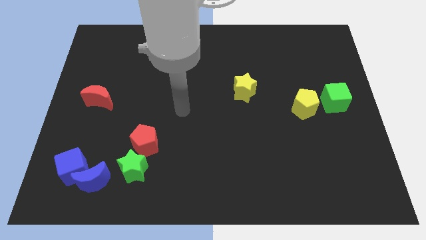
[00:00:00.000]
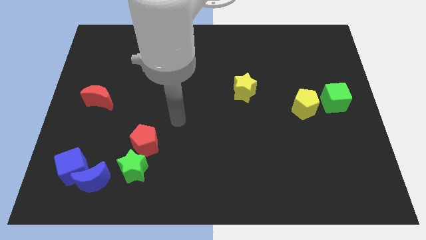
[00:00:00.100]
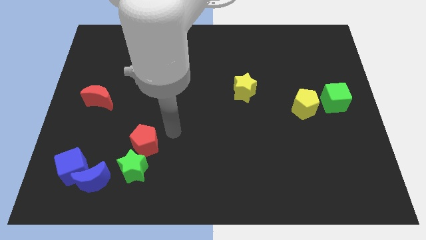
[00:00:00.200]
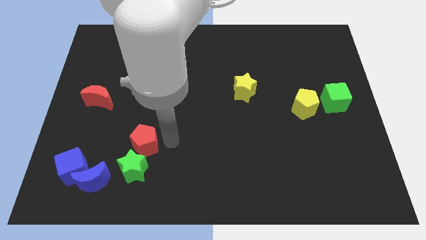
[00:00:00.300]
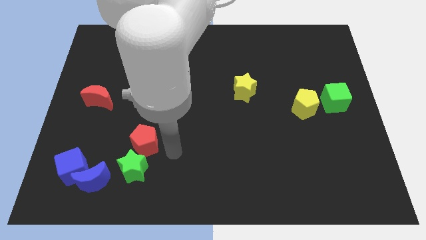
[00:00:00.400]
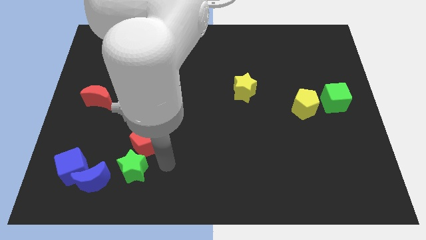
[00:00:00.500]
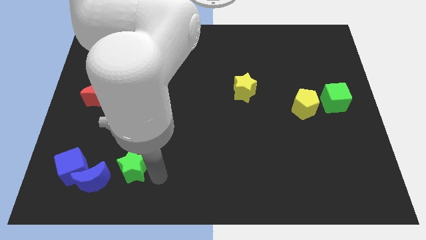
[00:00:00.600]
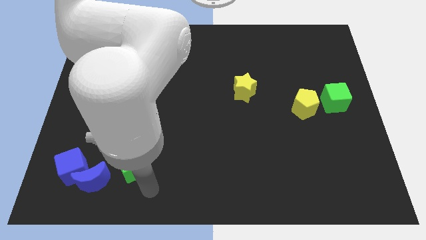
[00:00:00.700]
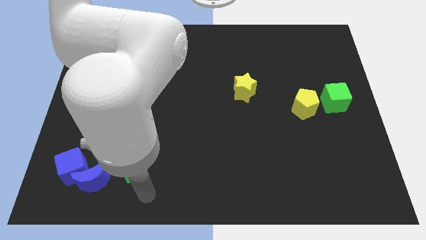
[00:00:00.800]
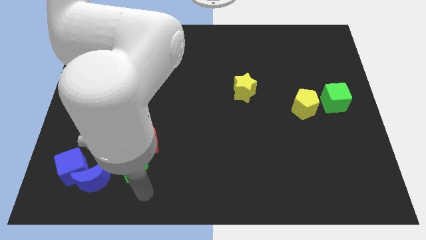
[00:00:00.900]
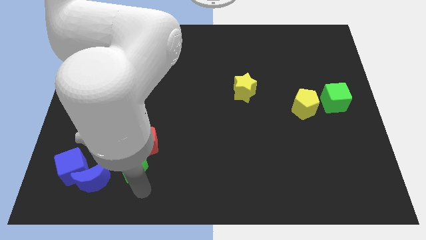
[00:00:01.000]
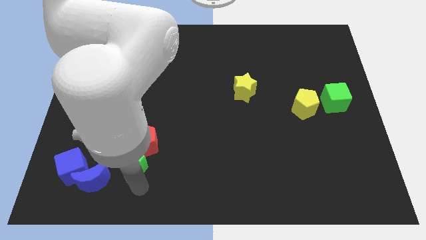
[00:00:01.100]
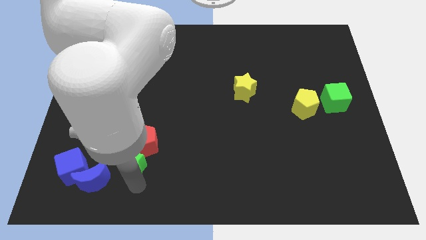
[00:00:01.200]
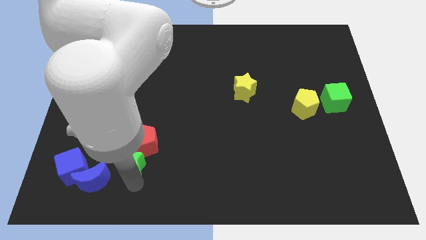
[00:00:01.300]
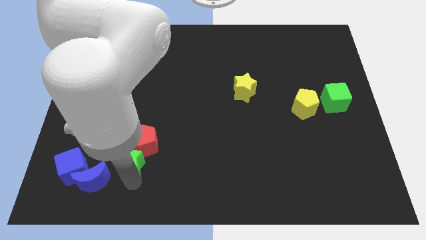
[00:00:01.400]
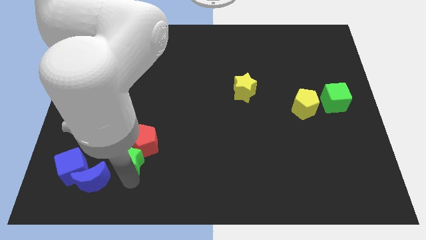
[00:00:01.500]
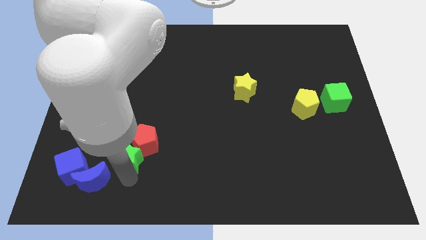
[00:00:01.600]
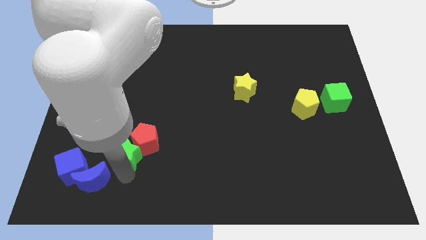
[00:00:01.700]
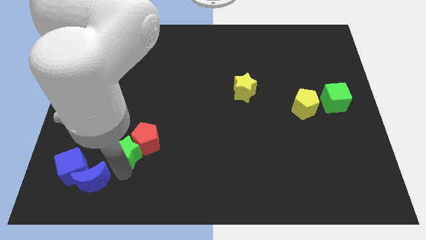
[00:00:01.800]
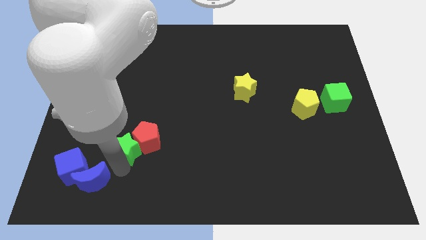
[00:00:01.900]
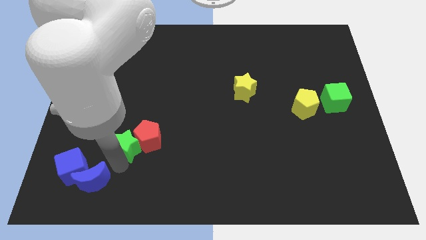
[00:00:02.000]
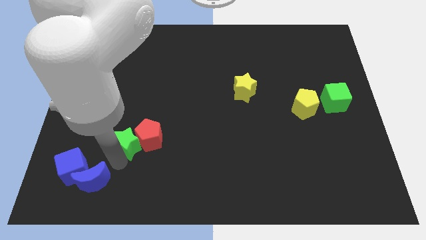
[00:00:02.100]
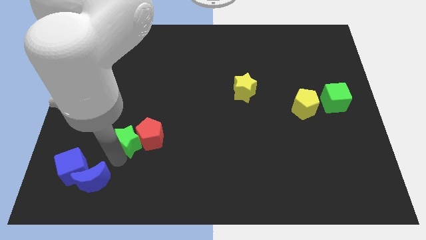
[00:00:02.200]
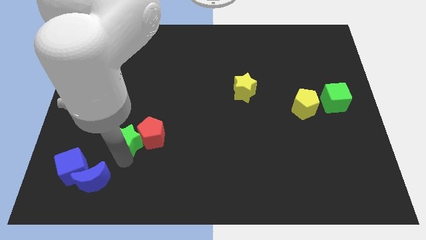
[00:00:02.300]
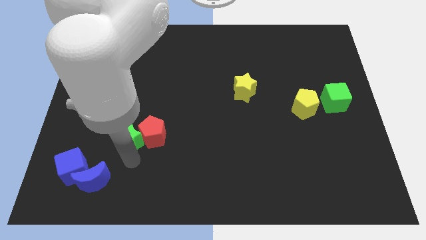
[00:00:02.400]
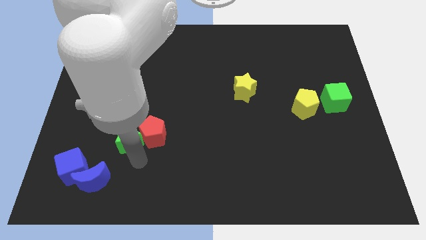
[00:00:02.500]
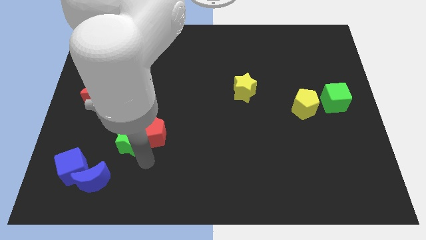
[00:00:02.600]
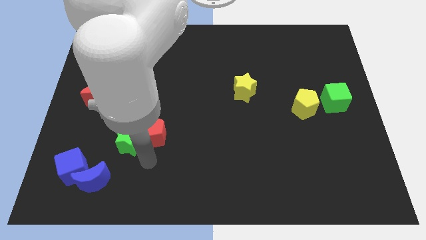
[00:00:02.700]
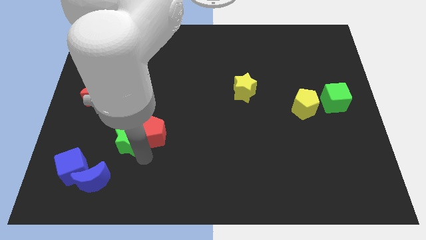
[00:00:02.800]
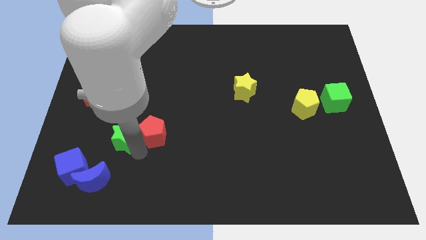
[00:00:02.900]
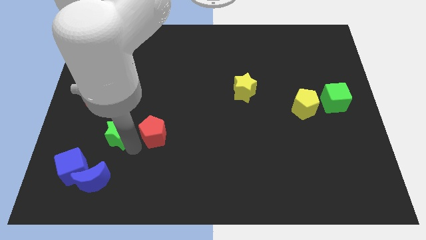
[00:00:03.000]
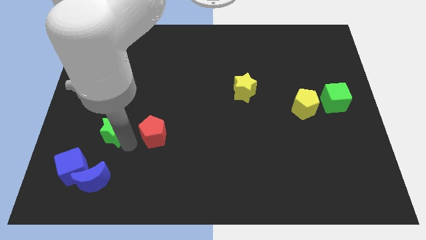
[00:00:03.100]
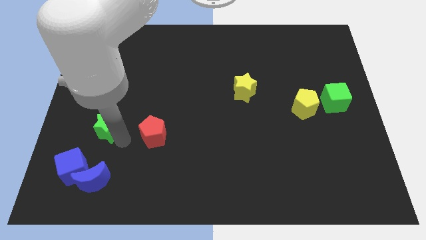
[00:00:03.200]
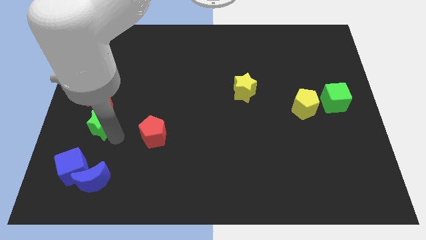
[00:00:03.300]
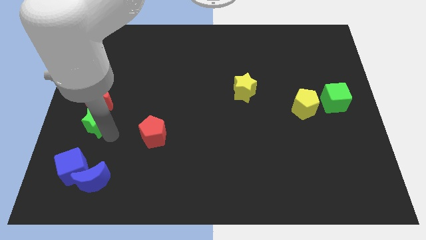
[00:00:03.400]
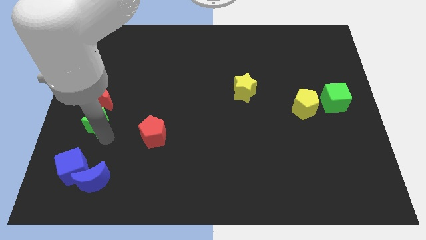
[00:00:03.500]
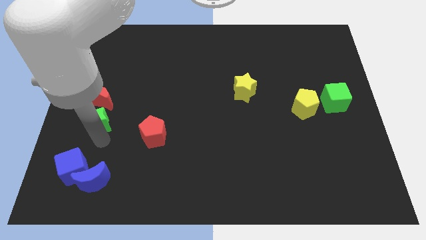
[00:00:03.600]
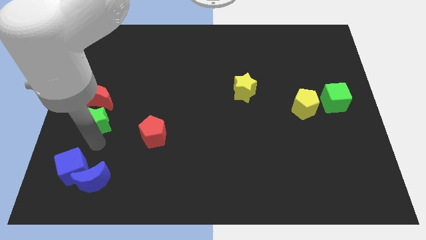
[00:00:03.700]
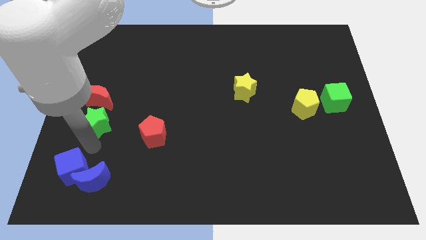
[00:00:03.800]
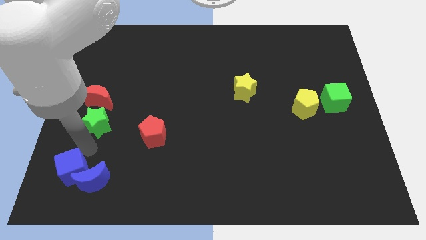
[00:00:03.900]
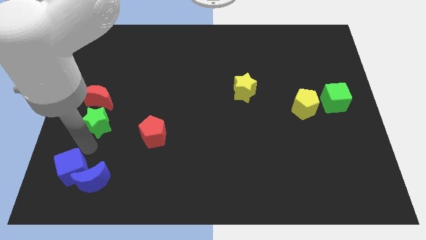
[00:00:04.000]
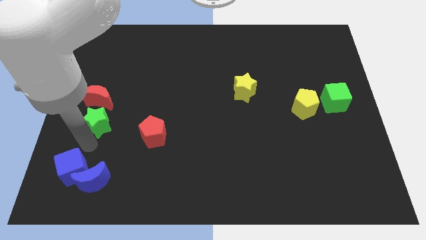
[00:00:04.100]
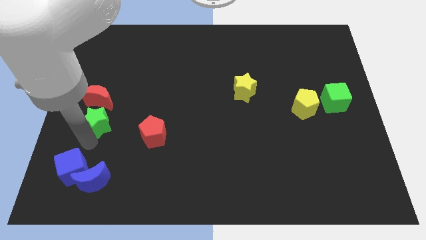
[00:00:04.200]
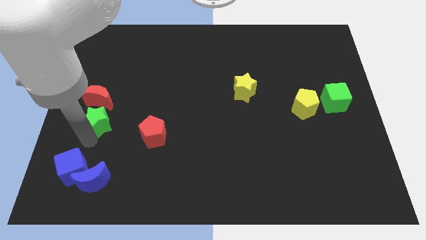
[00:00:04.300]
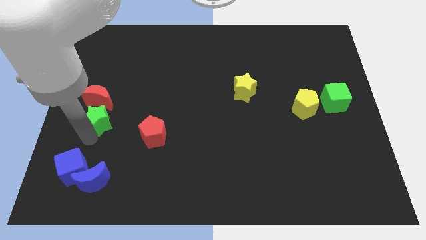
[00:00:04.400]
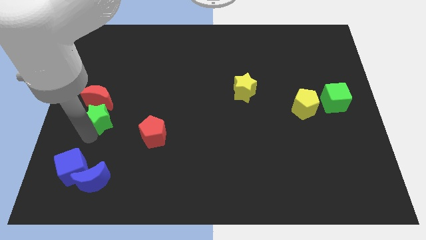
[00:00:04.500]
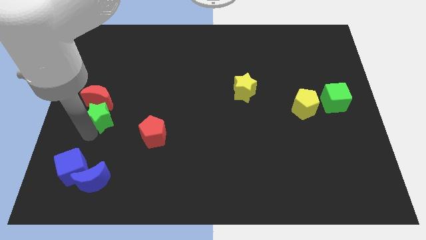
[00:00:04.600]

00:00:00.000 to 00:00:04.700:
put the green star close to the red moon

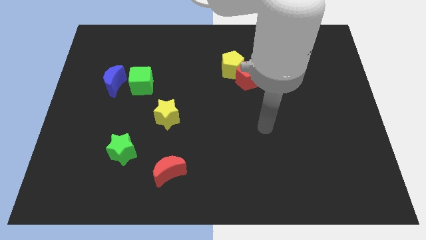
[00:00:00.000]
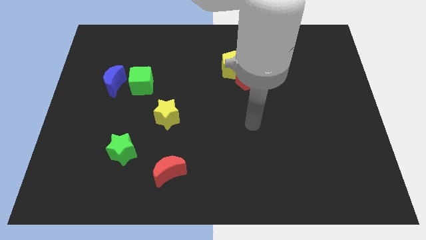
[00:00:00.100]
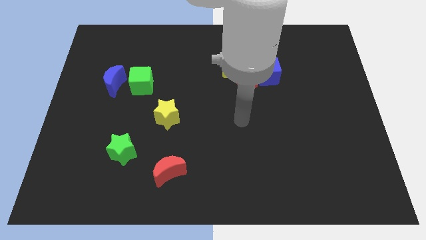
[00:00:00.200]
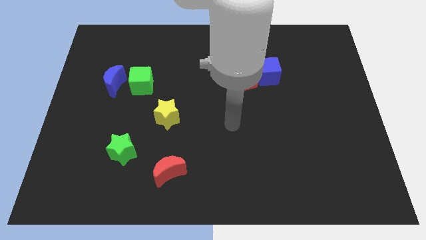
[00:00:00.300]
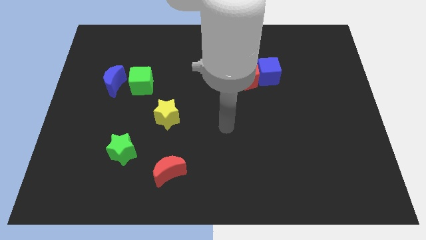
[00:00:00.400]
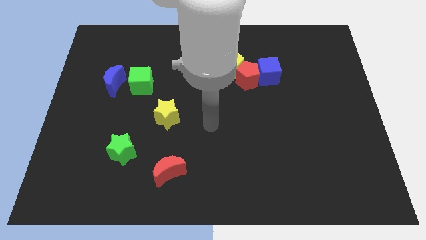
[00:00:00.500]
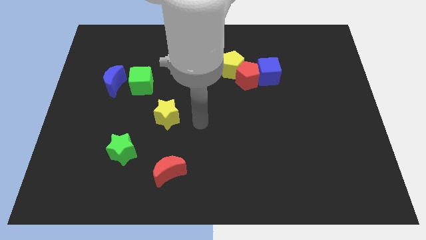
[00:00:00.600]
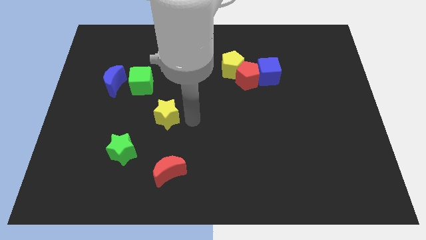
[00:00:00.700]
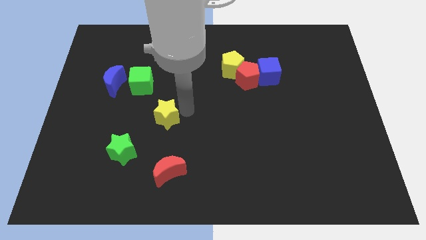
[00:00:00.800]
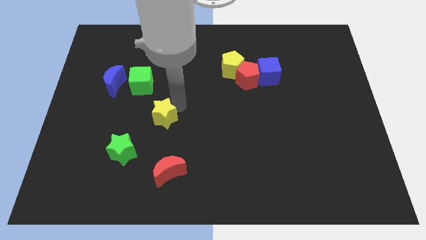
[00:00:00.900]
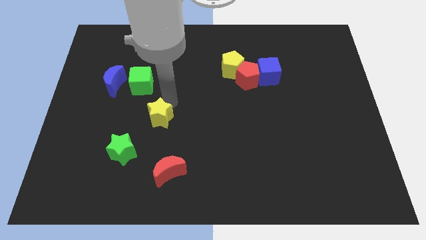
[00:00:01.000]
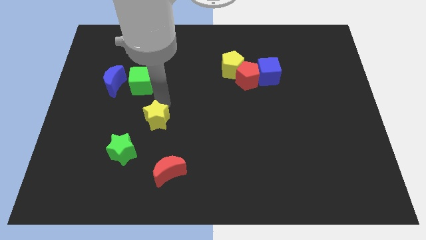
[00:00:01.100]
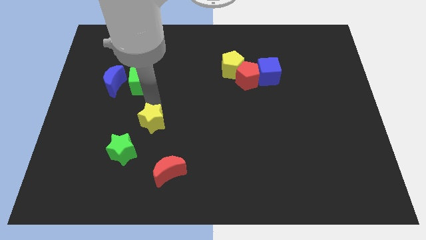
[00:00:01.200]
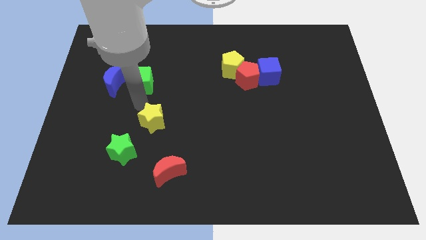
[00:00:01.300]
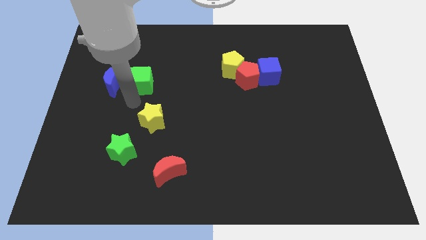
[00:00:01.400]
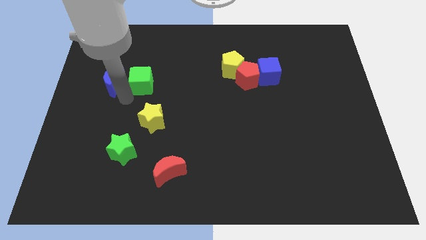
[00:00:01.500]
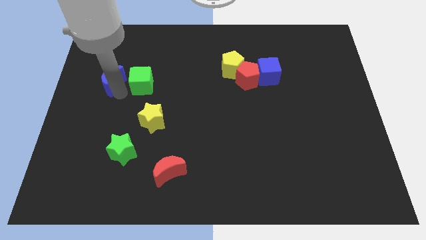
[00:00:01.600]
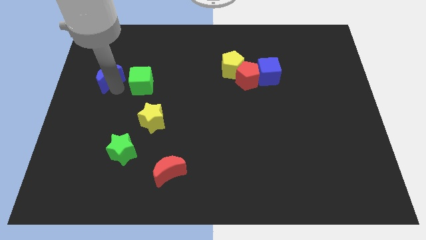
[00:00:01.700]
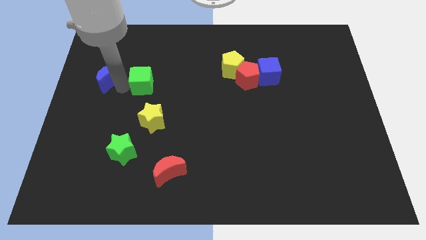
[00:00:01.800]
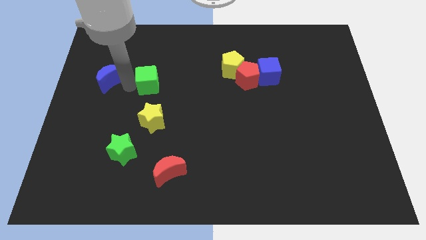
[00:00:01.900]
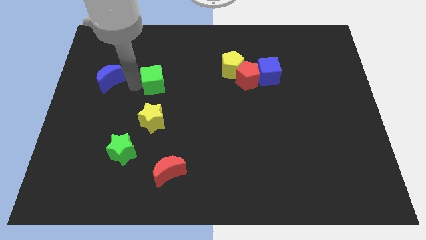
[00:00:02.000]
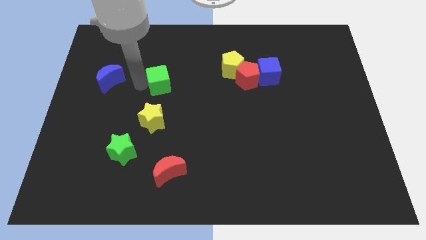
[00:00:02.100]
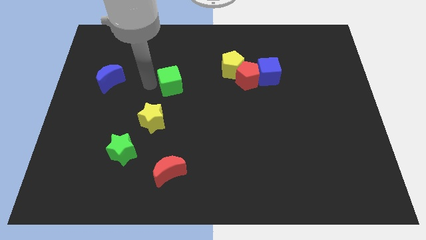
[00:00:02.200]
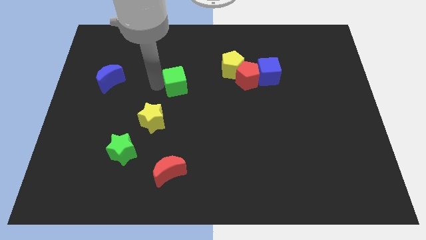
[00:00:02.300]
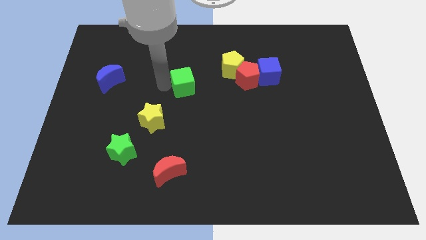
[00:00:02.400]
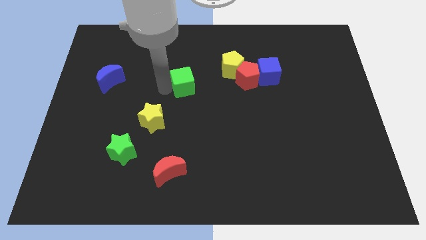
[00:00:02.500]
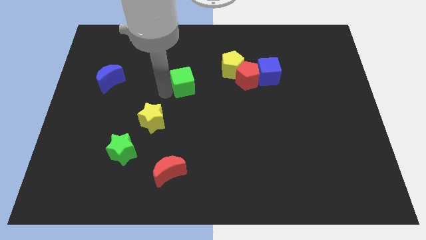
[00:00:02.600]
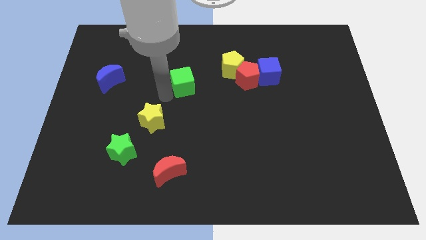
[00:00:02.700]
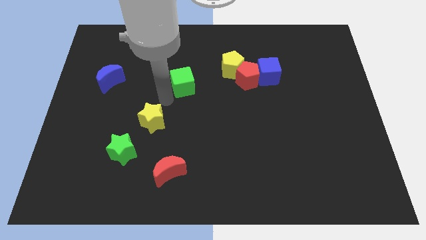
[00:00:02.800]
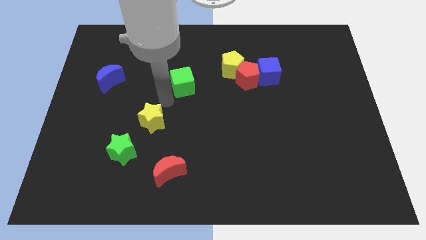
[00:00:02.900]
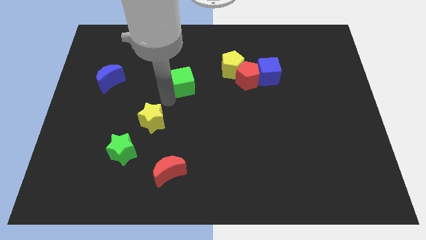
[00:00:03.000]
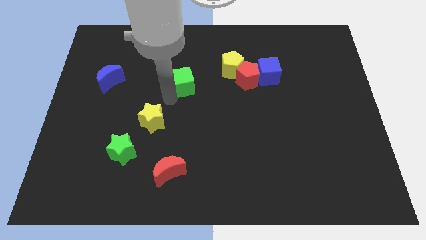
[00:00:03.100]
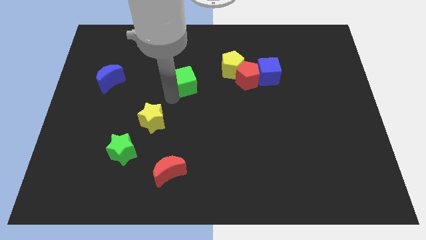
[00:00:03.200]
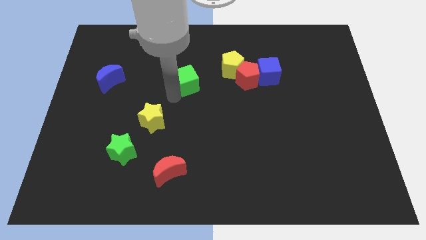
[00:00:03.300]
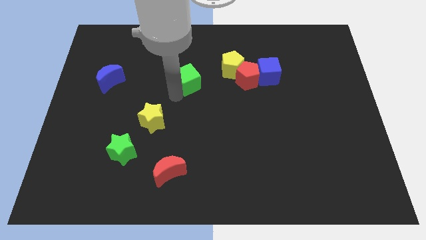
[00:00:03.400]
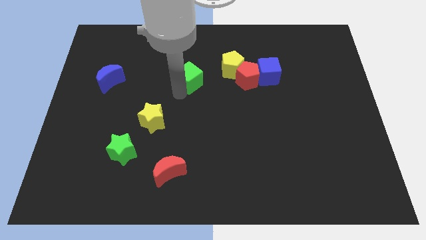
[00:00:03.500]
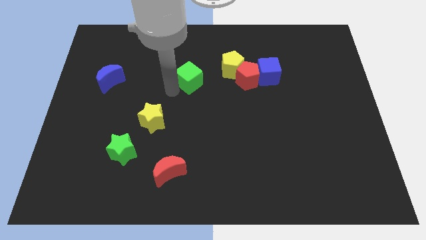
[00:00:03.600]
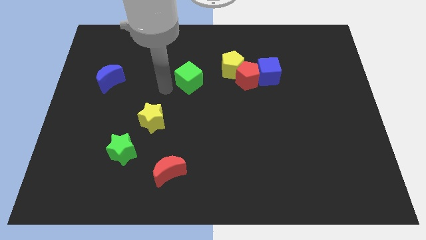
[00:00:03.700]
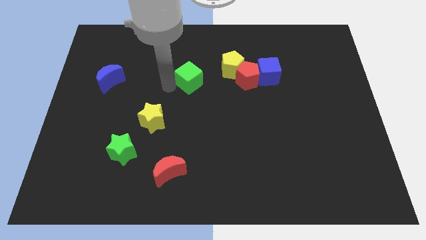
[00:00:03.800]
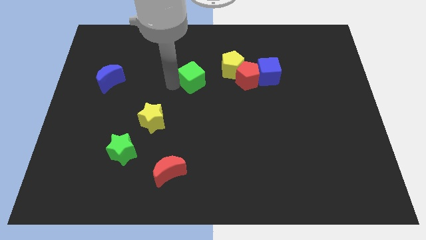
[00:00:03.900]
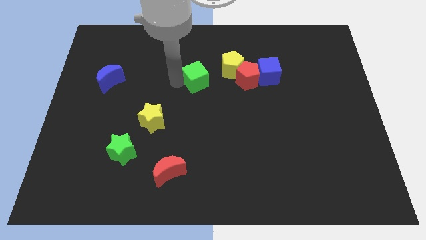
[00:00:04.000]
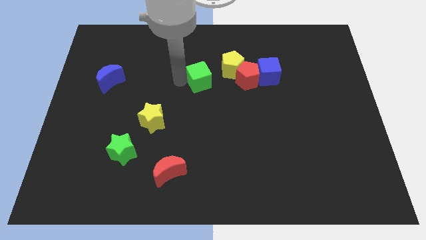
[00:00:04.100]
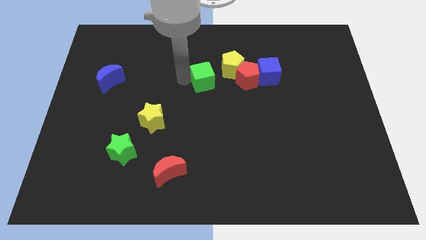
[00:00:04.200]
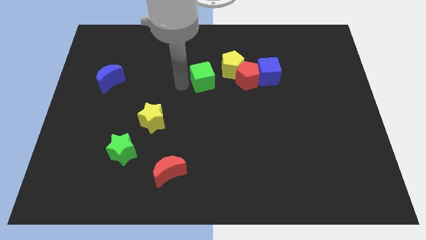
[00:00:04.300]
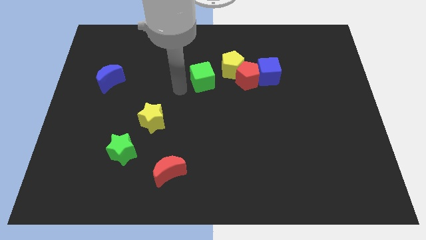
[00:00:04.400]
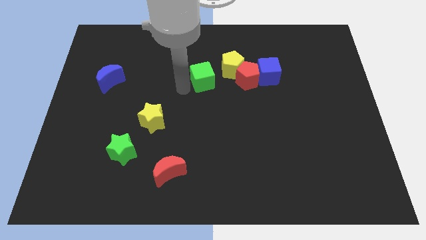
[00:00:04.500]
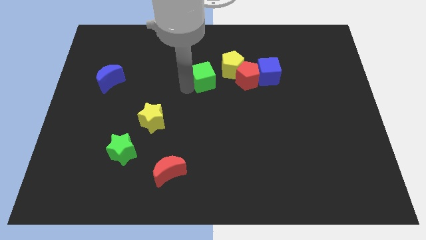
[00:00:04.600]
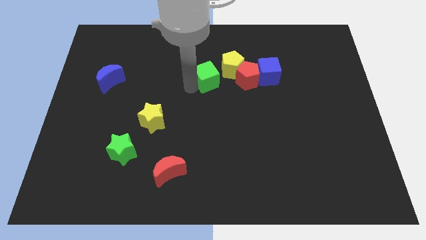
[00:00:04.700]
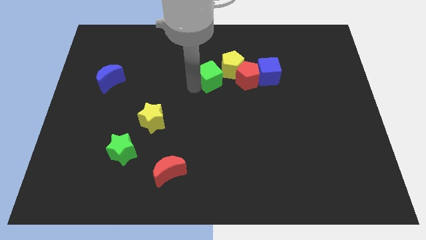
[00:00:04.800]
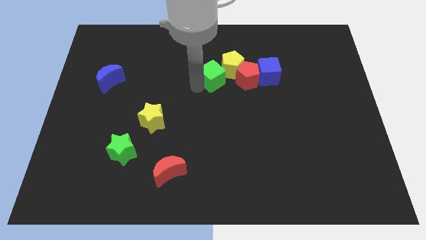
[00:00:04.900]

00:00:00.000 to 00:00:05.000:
put the green cube to the yellow pentagon
